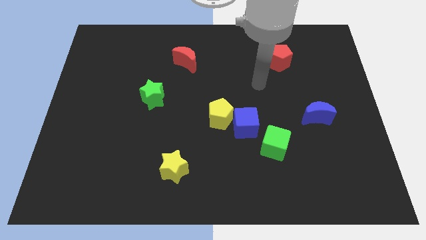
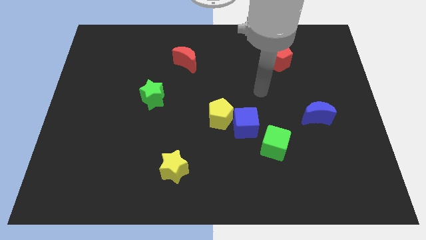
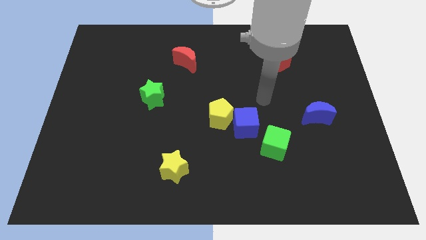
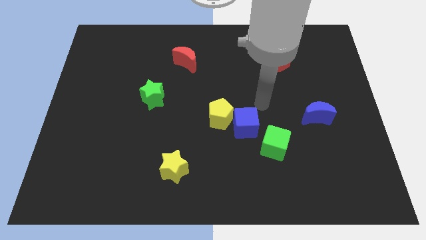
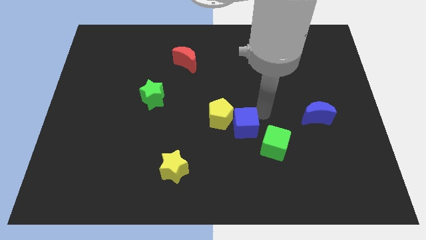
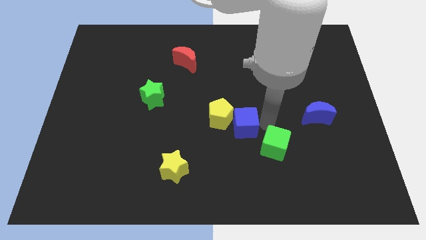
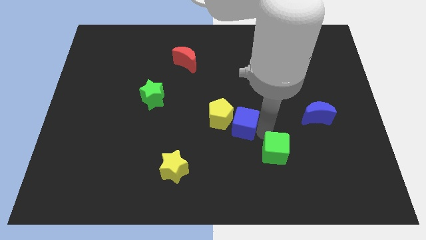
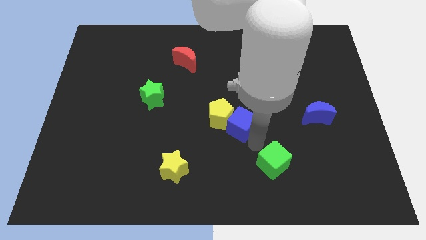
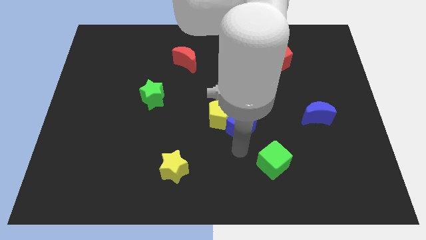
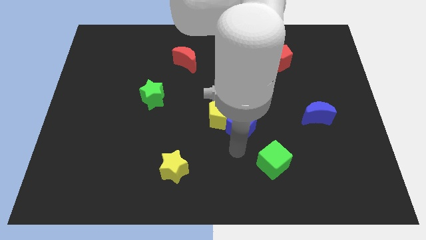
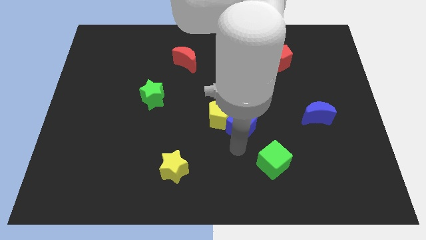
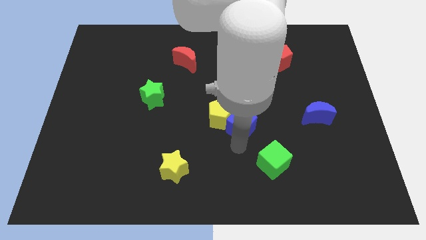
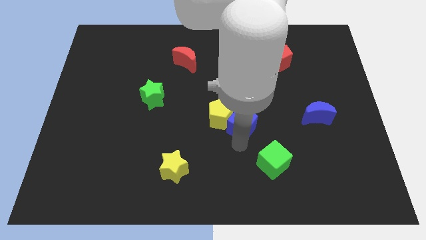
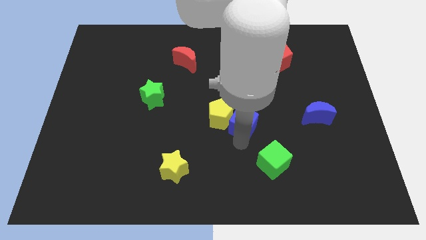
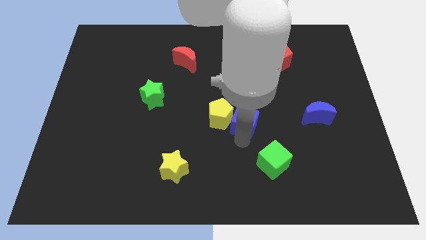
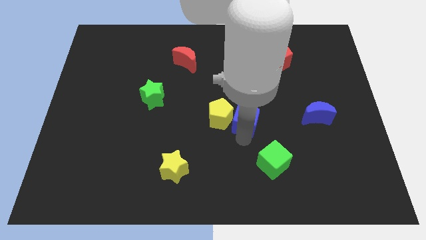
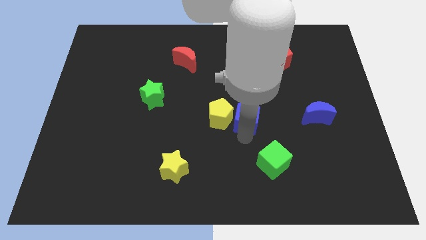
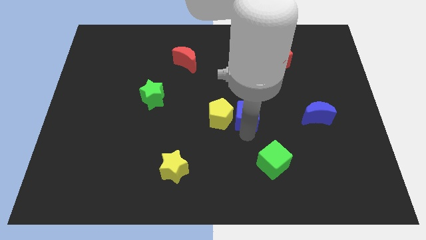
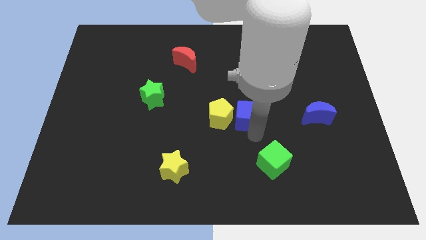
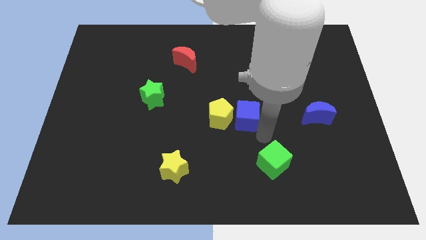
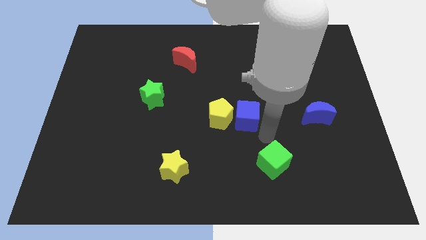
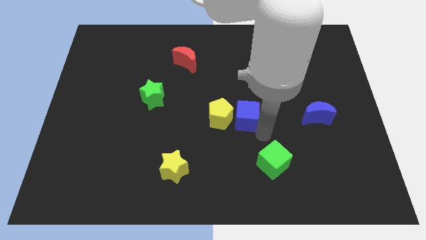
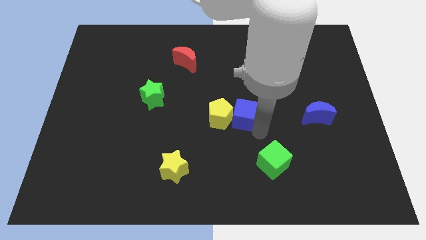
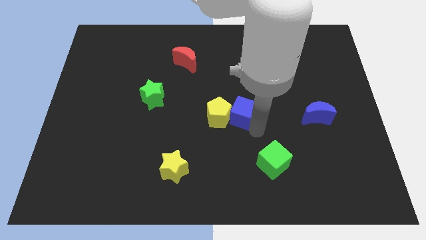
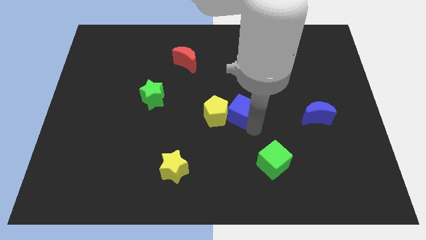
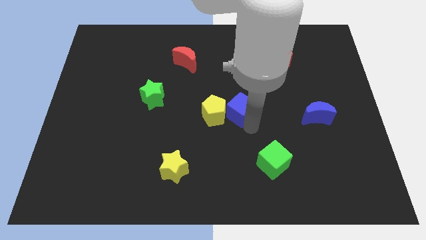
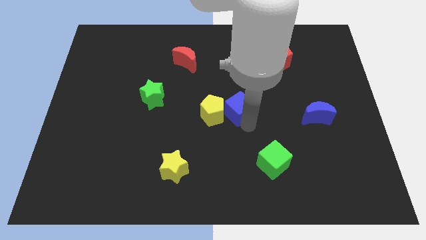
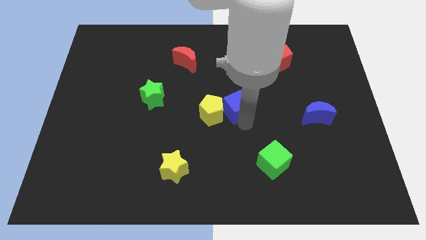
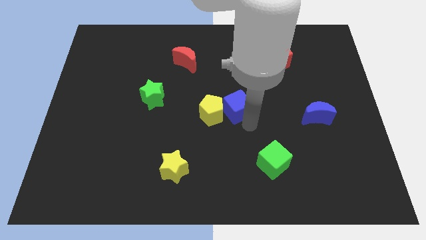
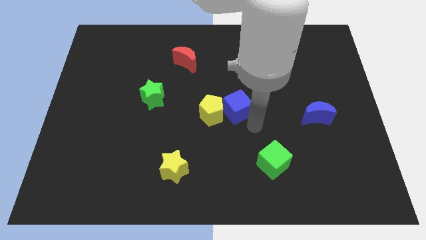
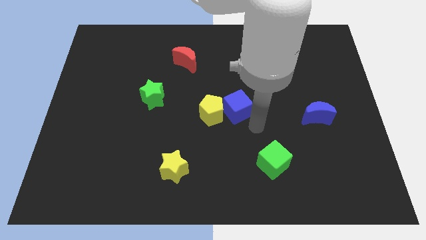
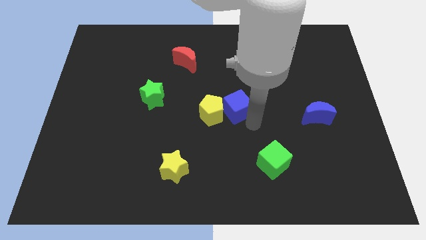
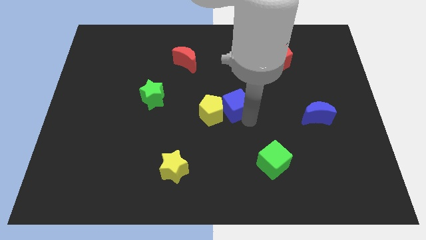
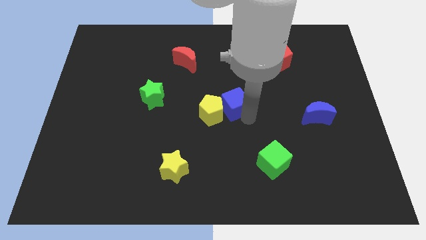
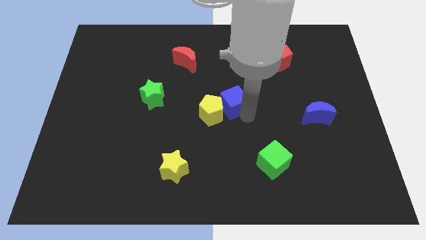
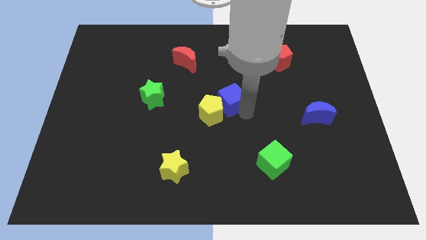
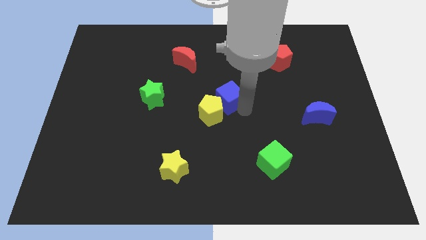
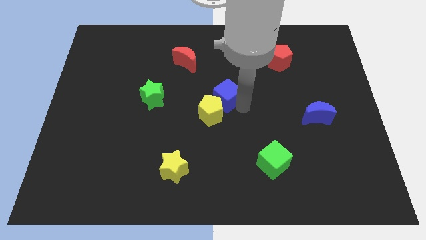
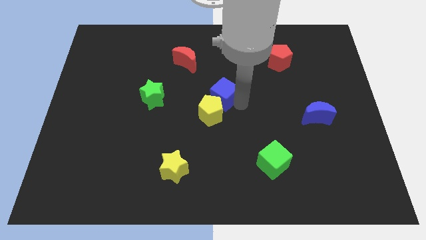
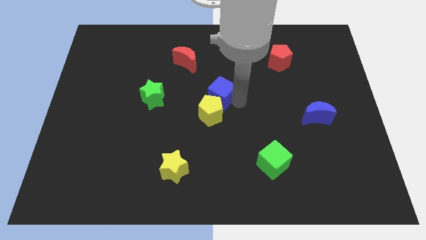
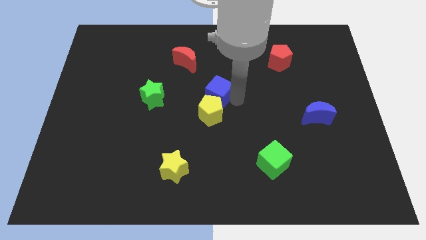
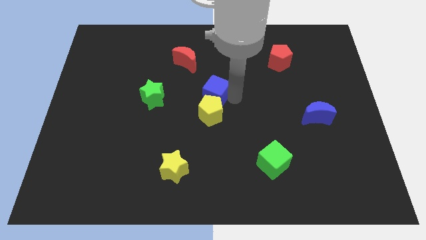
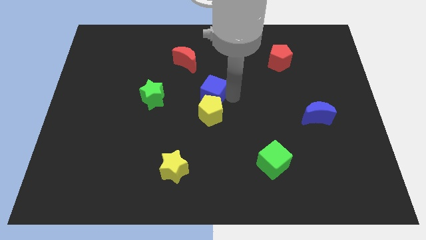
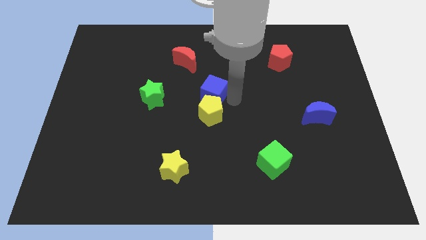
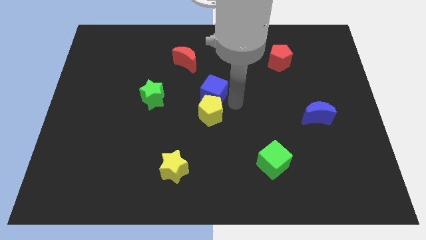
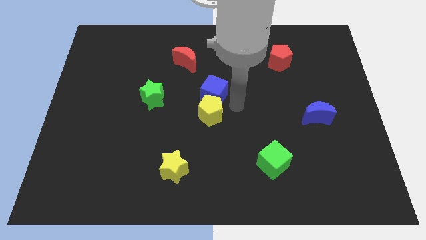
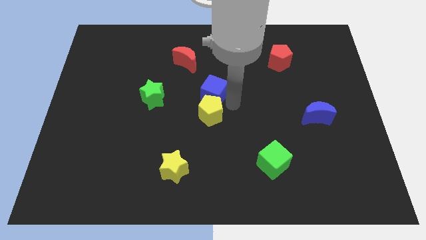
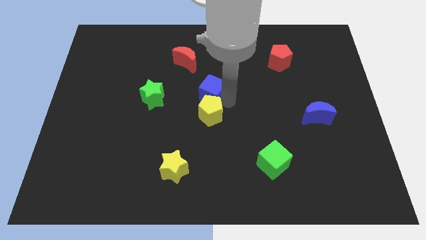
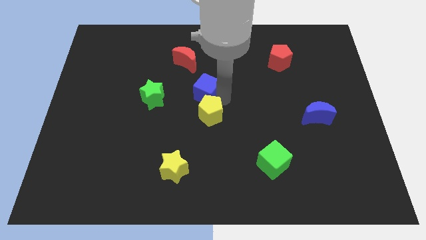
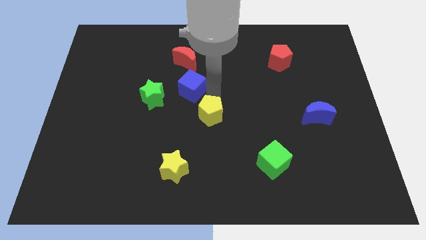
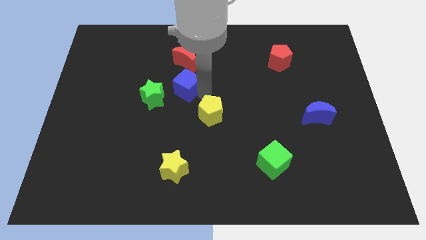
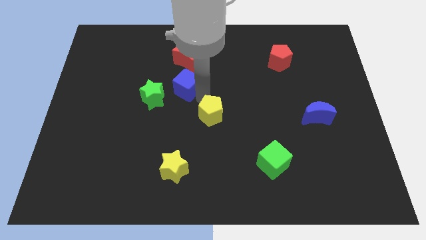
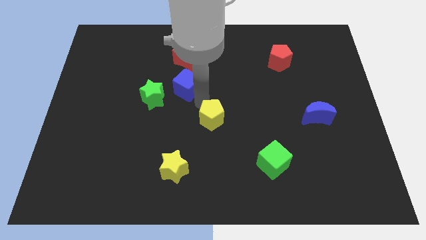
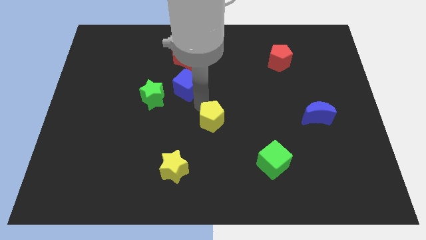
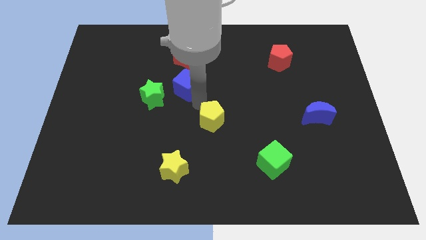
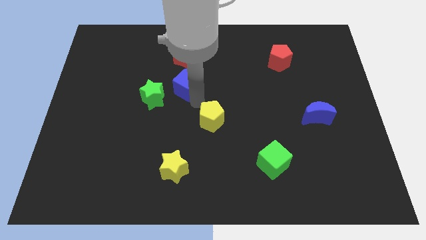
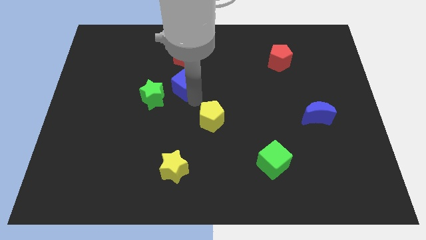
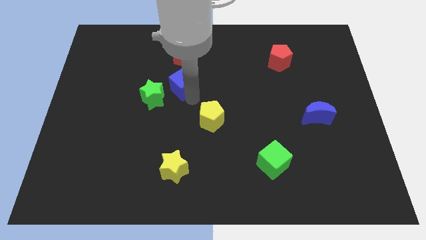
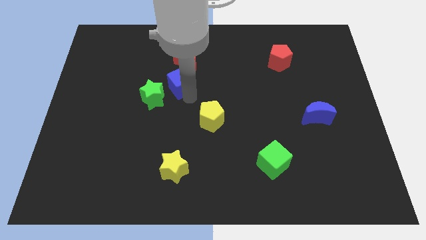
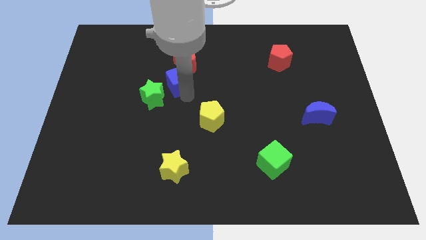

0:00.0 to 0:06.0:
slide the blue cube diagonally up and left

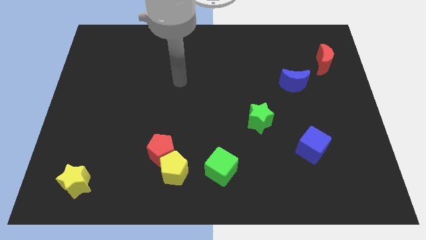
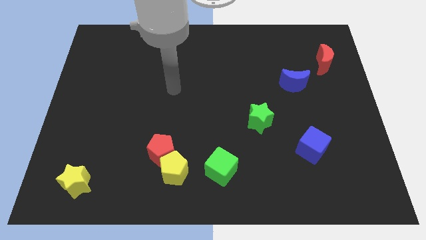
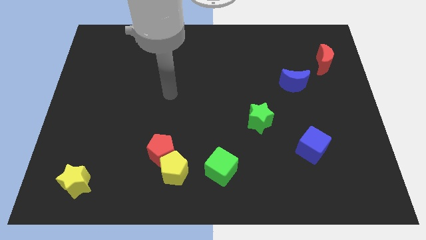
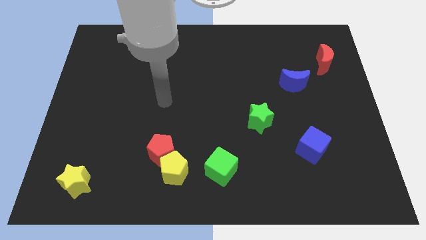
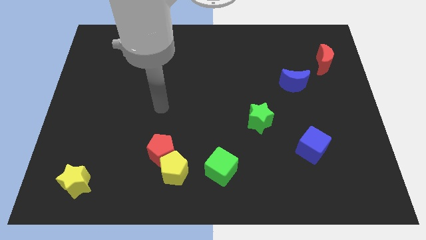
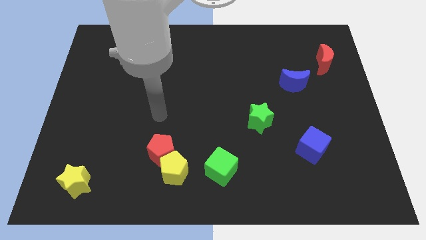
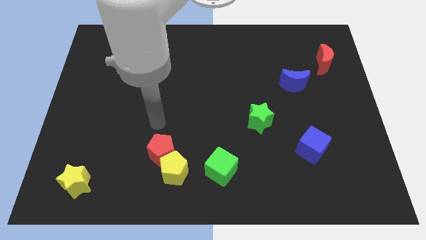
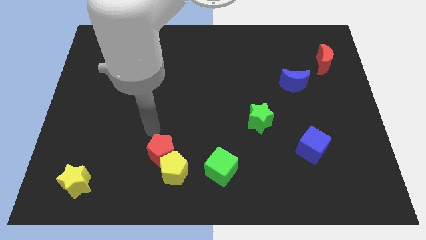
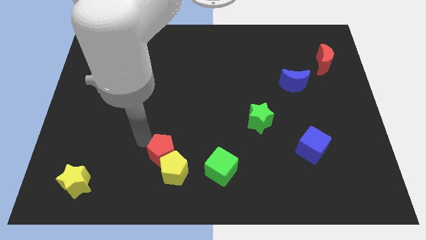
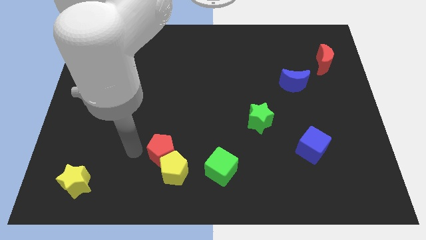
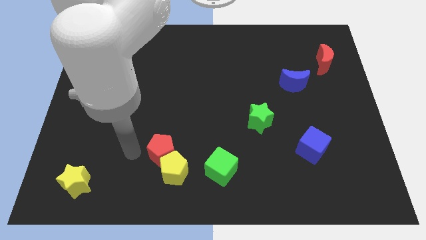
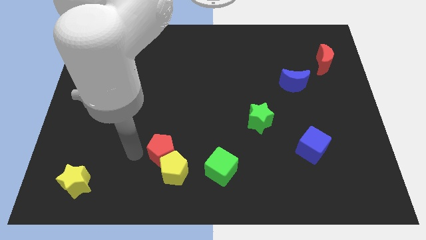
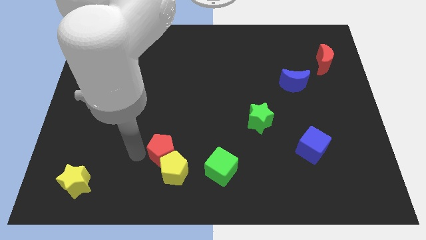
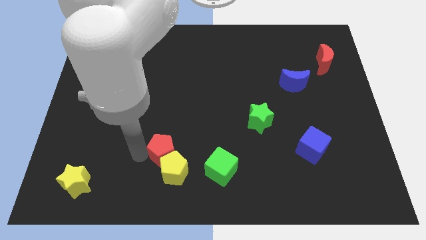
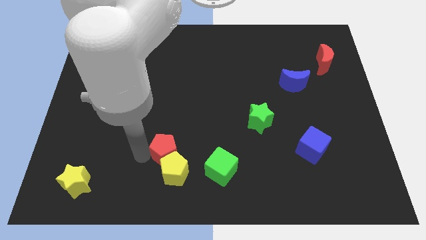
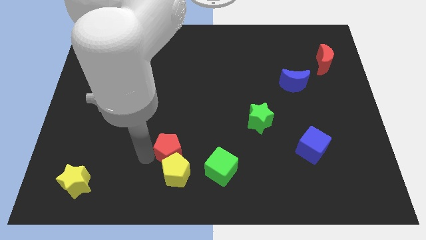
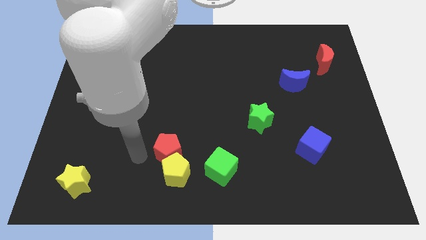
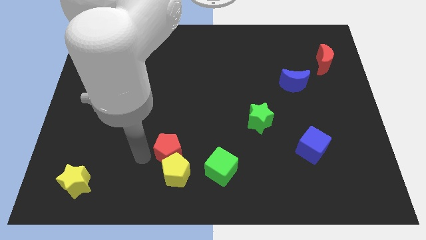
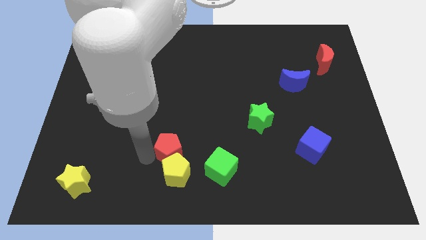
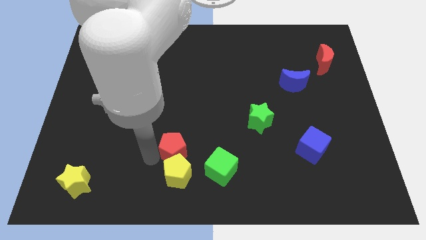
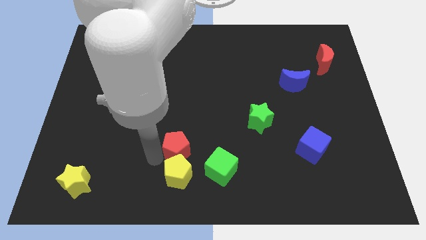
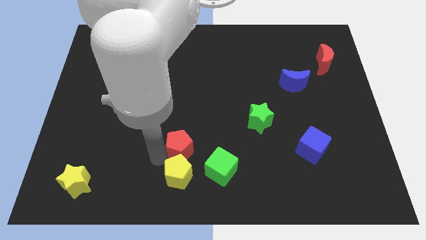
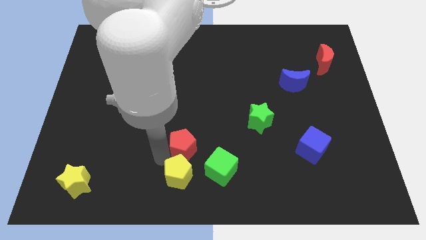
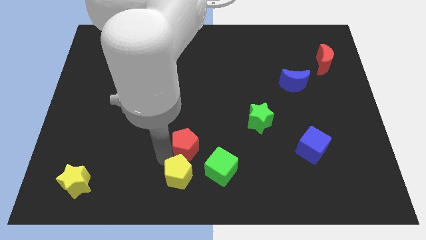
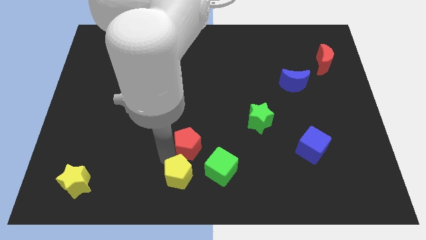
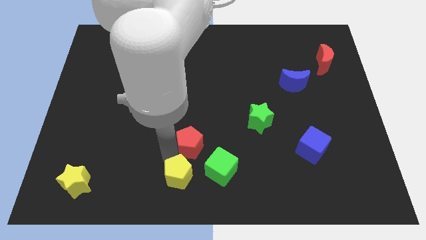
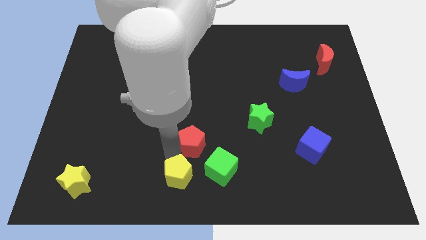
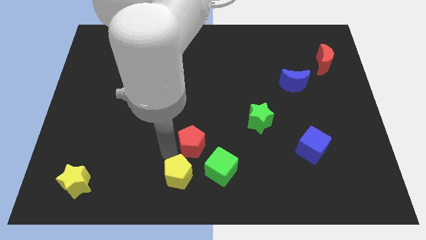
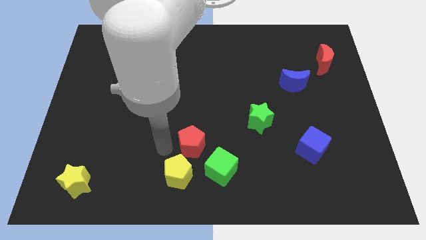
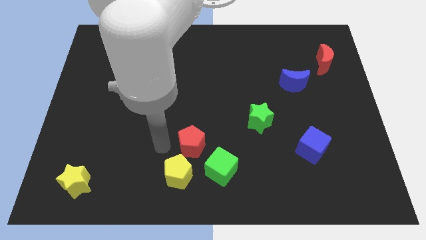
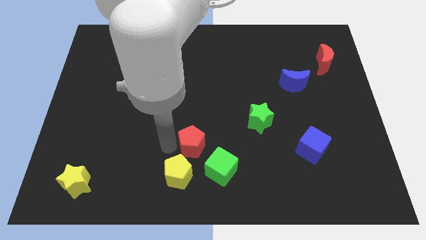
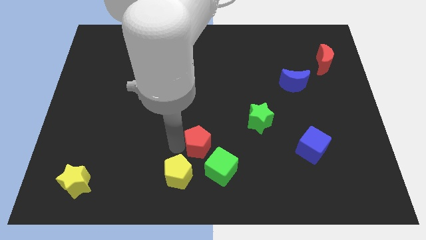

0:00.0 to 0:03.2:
move the red pentagon right somewhat
